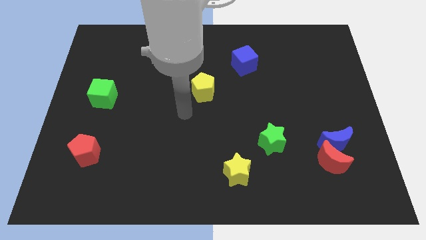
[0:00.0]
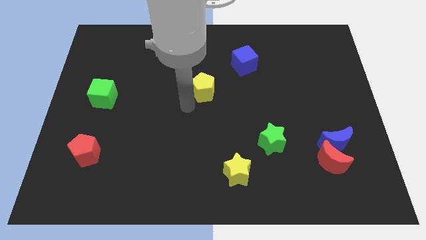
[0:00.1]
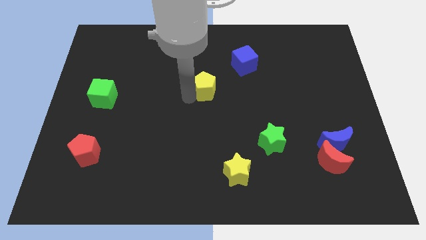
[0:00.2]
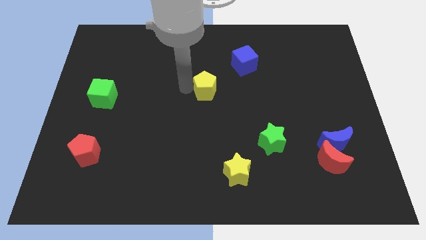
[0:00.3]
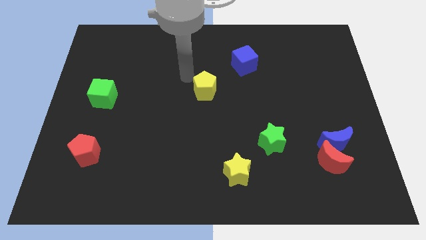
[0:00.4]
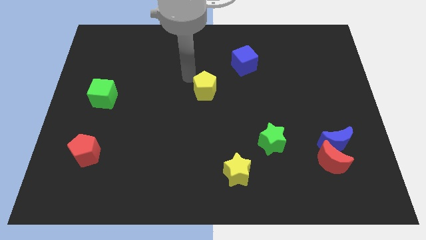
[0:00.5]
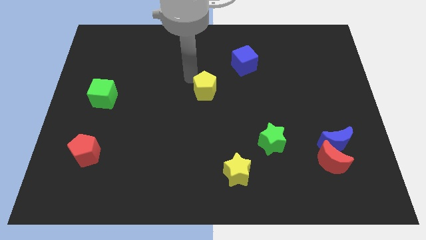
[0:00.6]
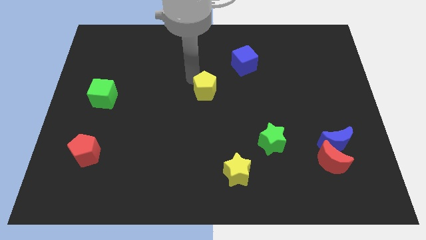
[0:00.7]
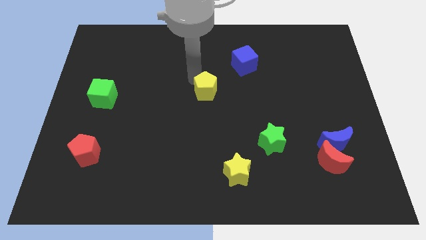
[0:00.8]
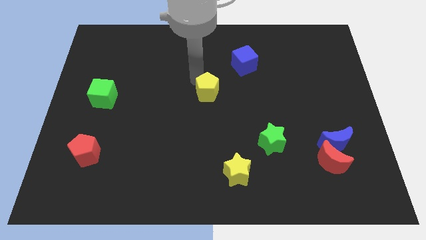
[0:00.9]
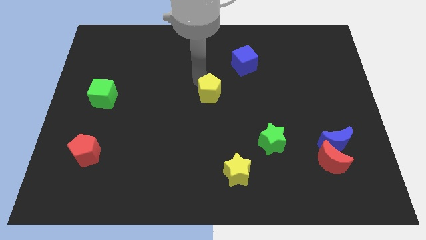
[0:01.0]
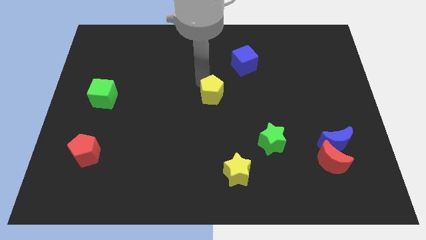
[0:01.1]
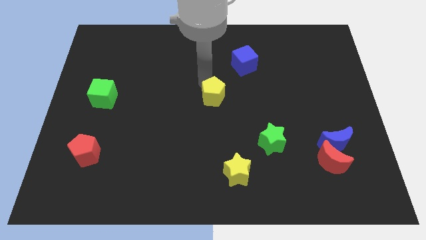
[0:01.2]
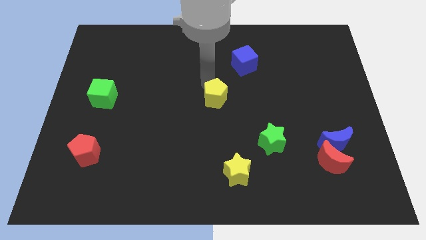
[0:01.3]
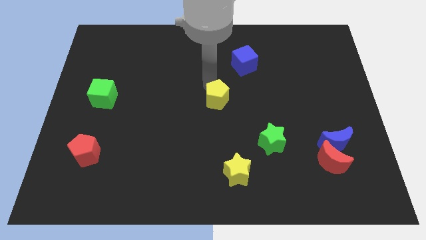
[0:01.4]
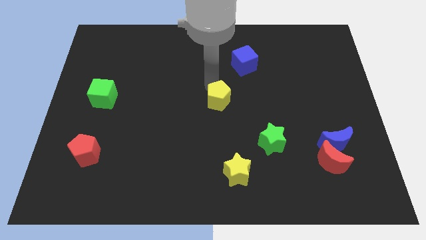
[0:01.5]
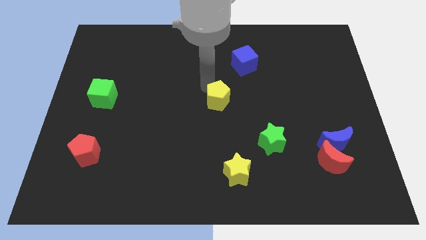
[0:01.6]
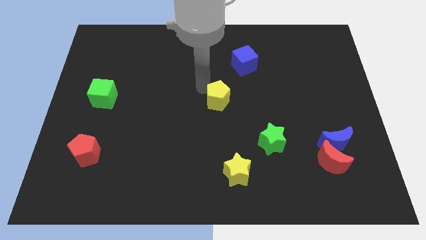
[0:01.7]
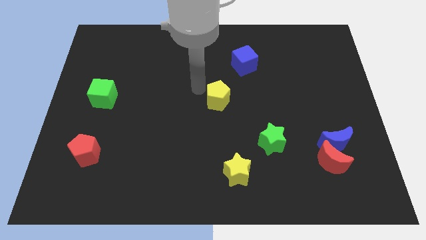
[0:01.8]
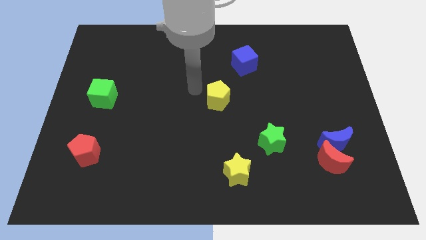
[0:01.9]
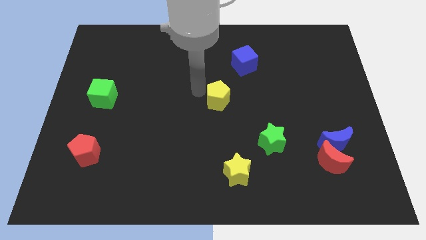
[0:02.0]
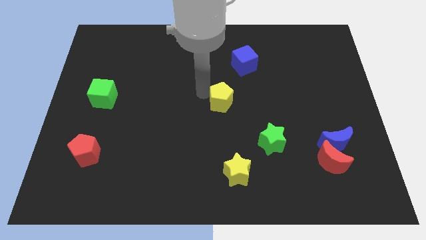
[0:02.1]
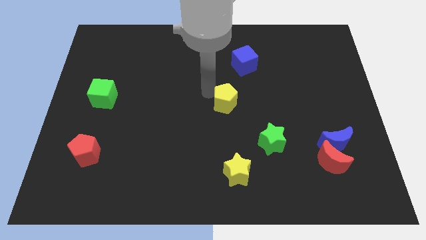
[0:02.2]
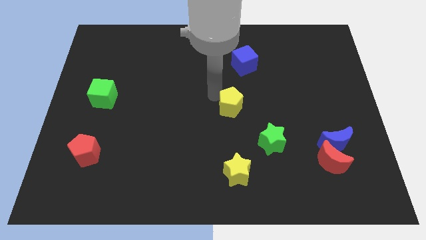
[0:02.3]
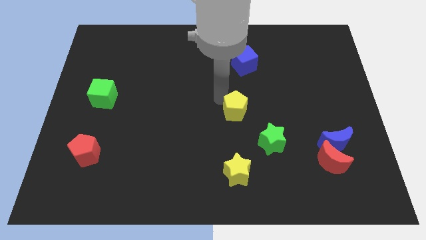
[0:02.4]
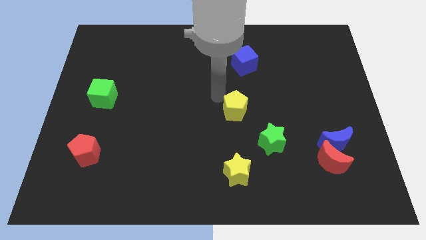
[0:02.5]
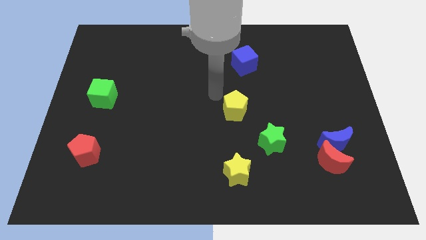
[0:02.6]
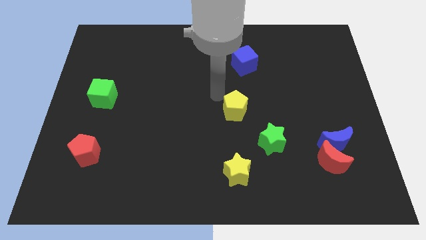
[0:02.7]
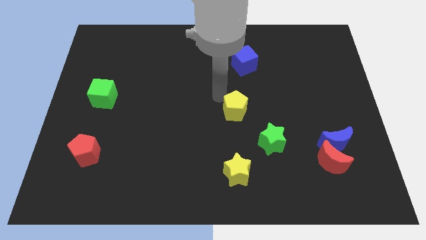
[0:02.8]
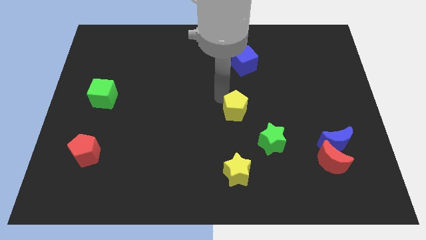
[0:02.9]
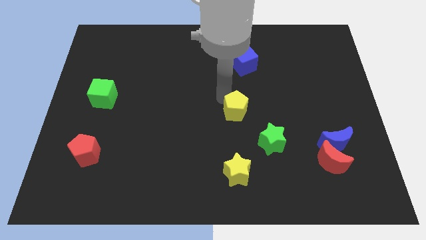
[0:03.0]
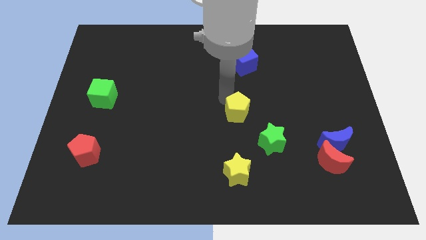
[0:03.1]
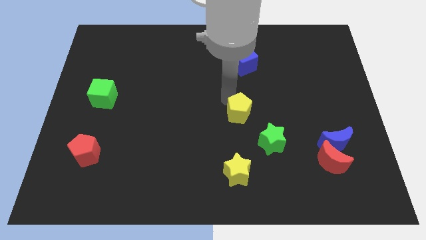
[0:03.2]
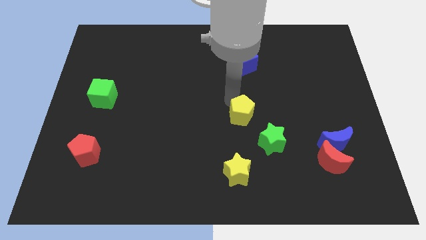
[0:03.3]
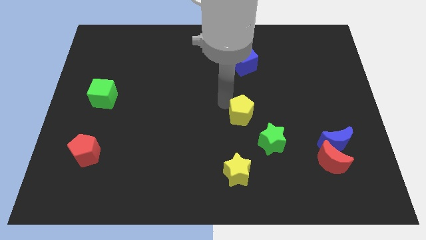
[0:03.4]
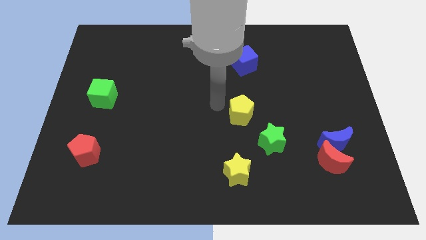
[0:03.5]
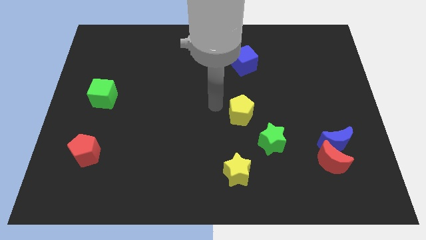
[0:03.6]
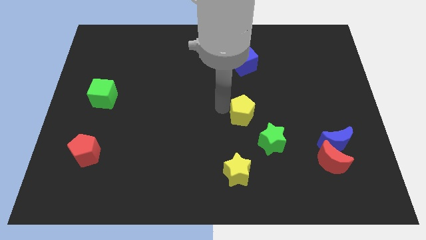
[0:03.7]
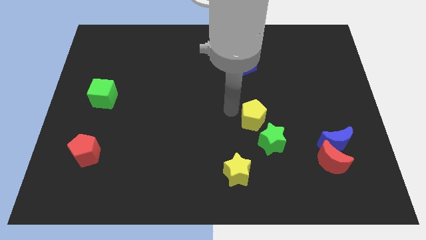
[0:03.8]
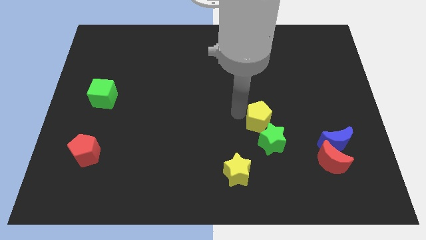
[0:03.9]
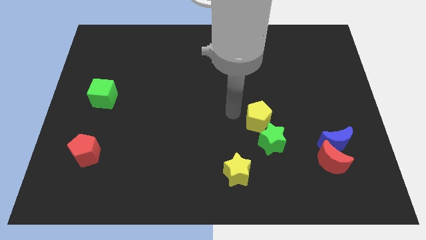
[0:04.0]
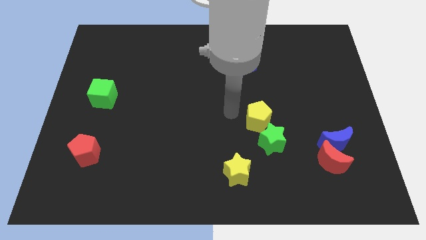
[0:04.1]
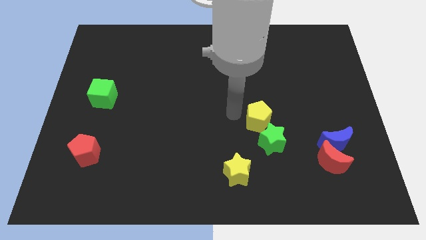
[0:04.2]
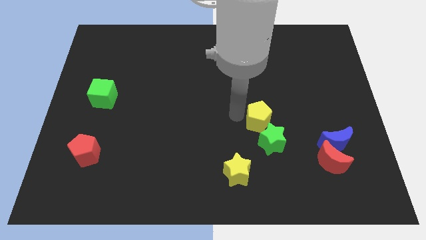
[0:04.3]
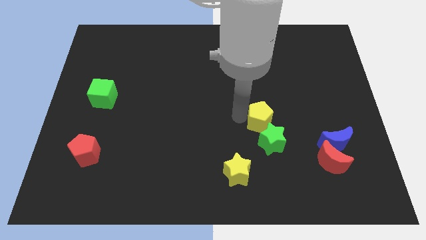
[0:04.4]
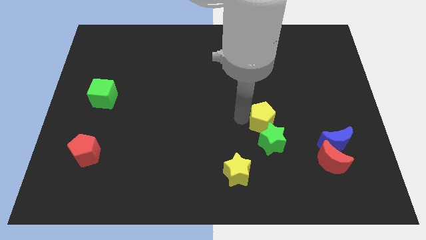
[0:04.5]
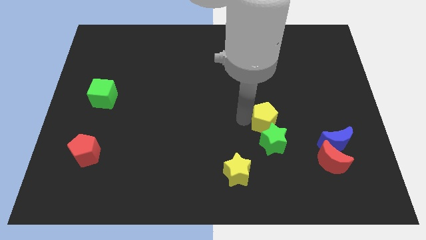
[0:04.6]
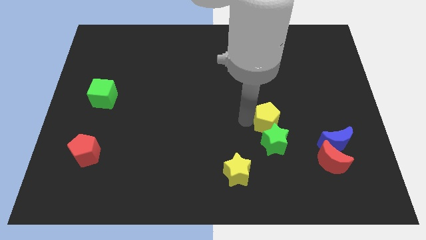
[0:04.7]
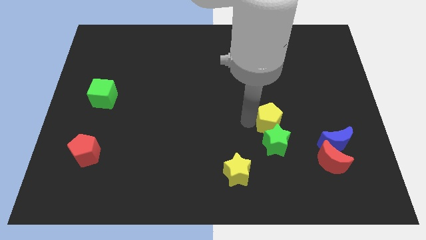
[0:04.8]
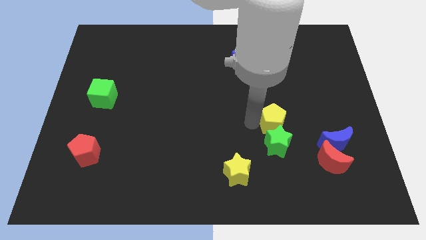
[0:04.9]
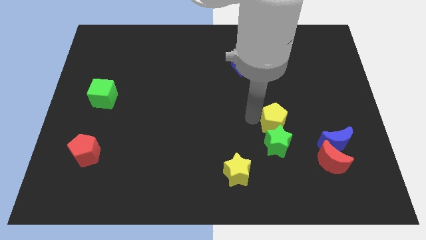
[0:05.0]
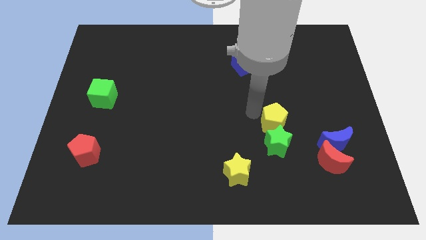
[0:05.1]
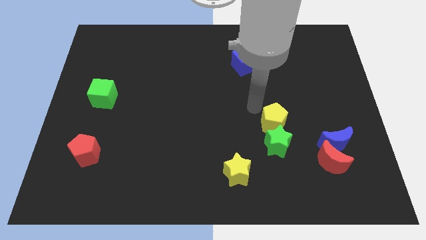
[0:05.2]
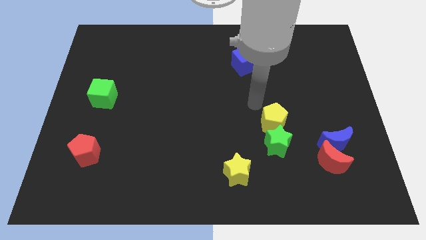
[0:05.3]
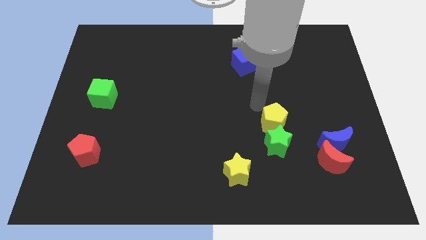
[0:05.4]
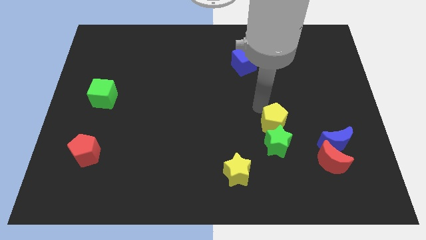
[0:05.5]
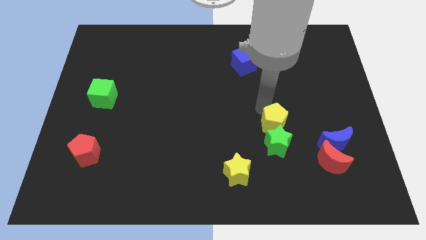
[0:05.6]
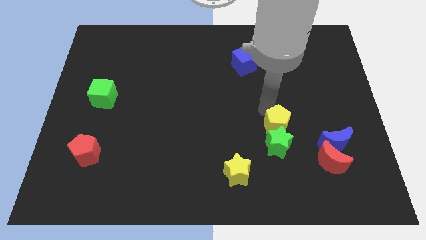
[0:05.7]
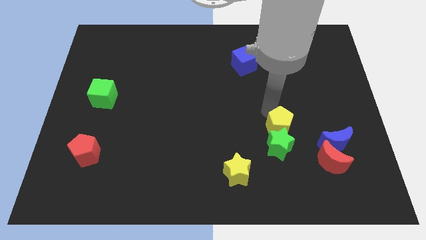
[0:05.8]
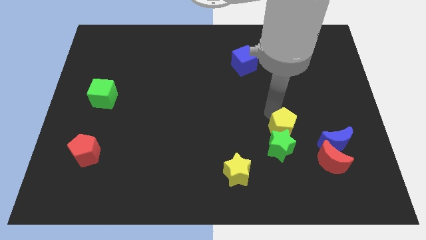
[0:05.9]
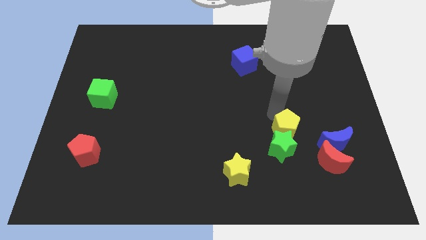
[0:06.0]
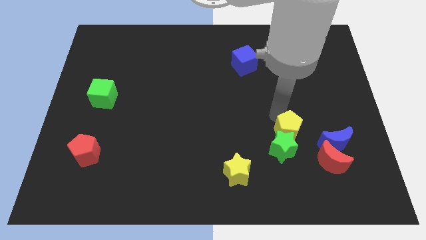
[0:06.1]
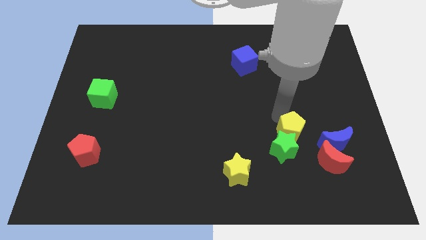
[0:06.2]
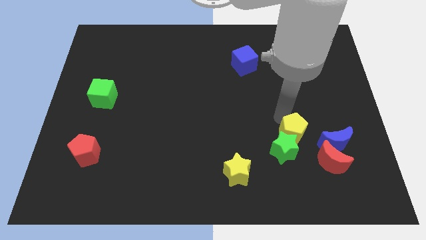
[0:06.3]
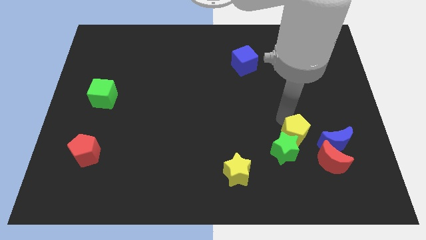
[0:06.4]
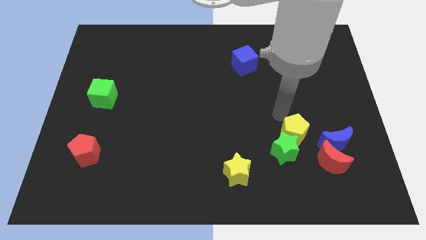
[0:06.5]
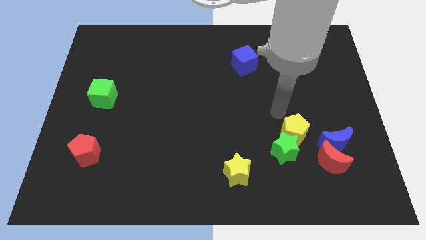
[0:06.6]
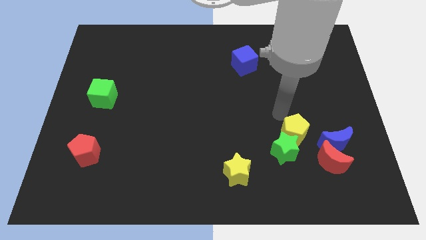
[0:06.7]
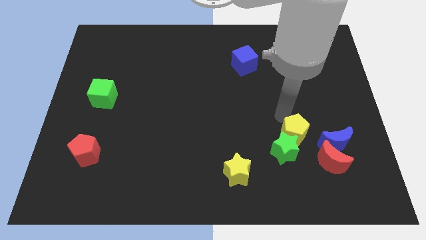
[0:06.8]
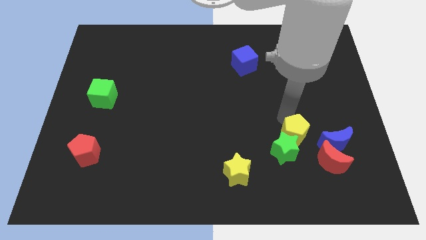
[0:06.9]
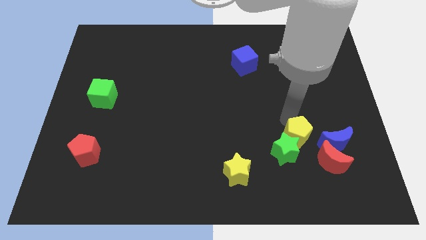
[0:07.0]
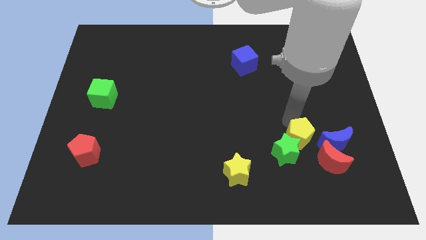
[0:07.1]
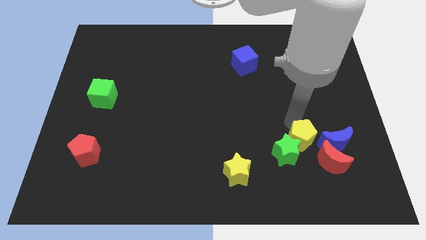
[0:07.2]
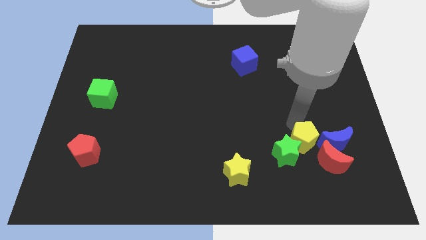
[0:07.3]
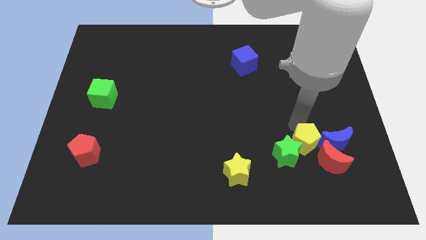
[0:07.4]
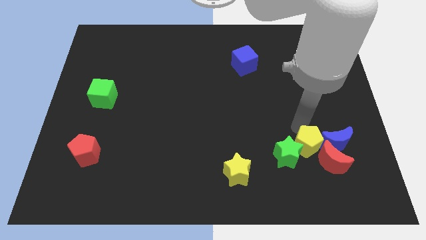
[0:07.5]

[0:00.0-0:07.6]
put the yellow pentagon towards the red moon
